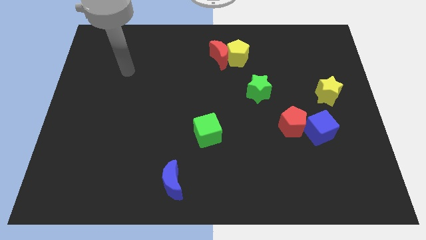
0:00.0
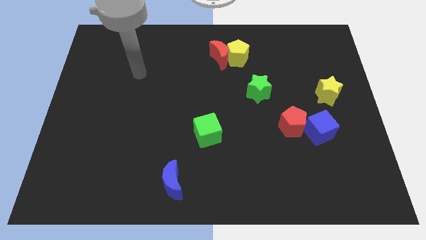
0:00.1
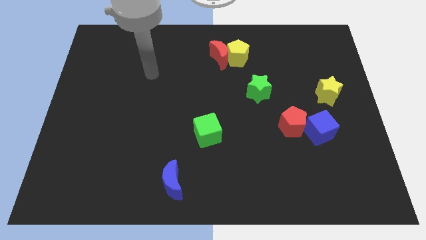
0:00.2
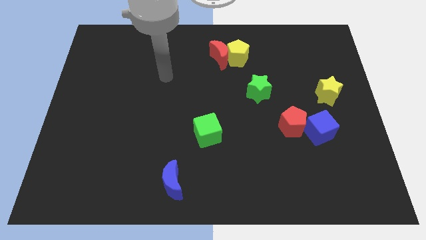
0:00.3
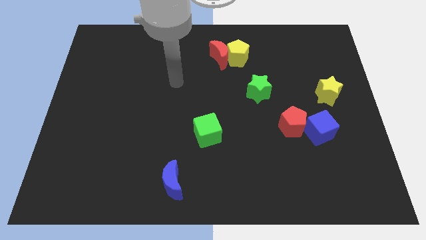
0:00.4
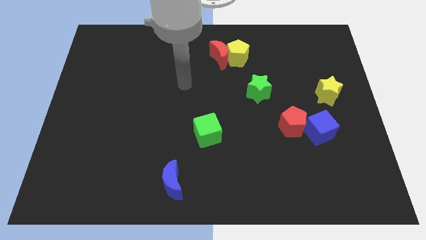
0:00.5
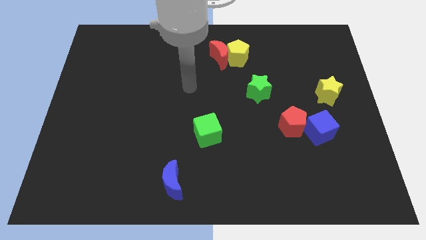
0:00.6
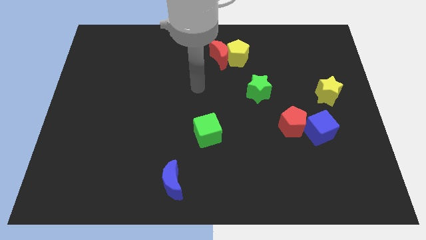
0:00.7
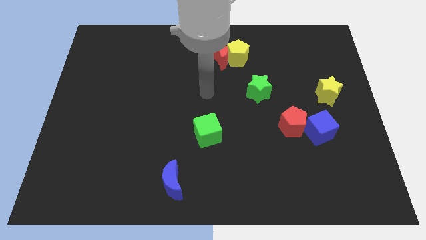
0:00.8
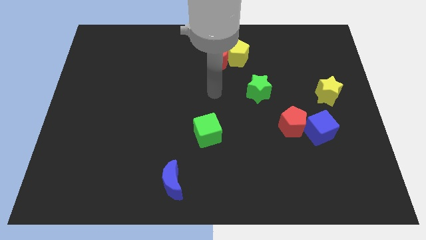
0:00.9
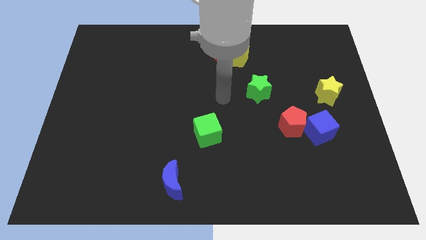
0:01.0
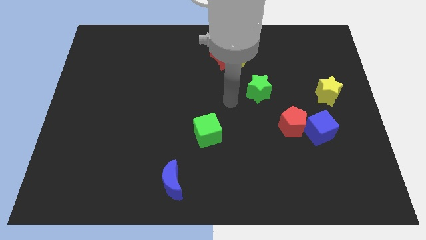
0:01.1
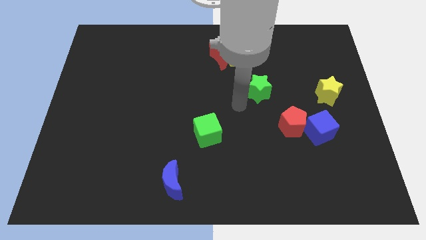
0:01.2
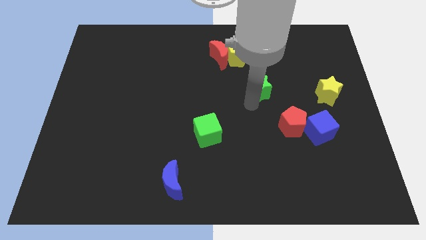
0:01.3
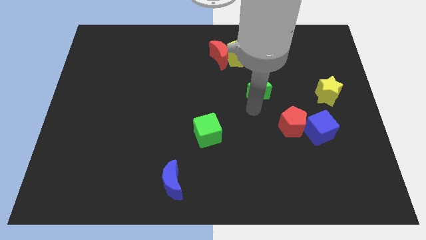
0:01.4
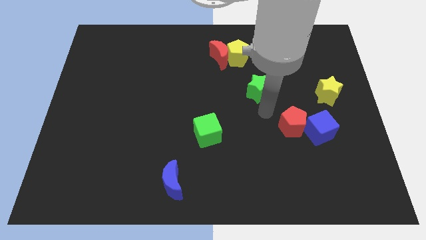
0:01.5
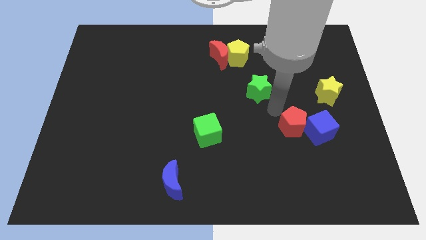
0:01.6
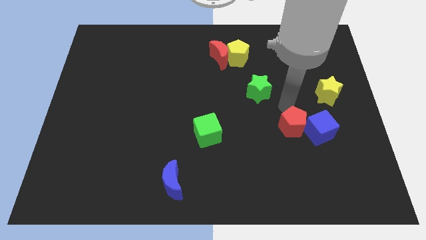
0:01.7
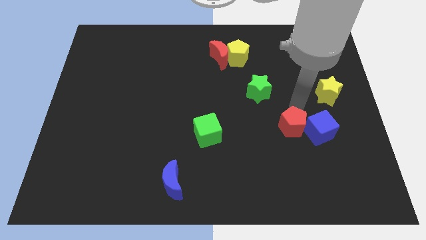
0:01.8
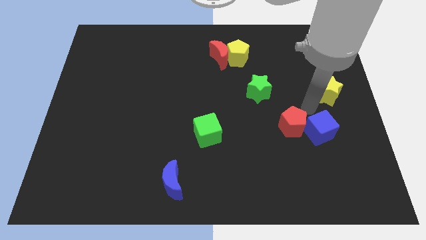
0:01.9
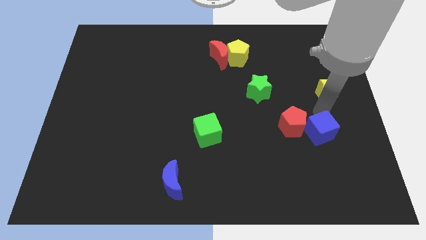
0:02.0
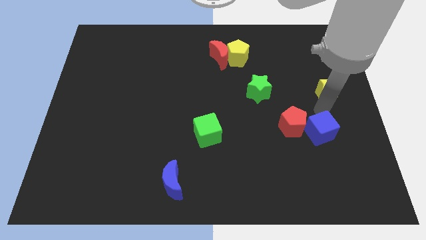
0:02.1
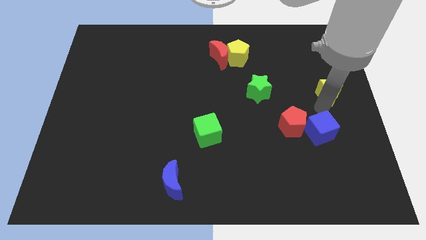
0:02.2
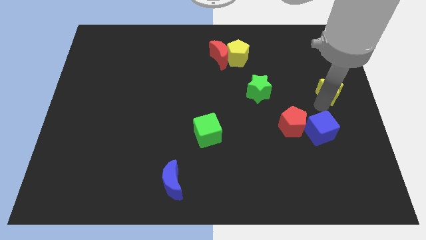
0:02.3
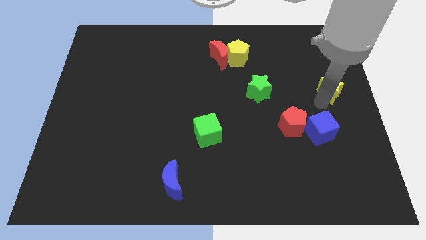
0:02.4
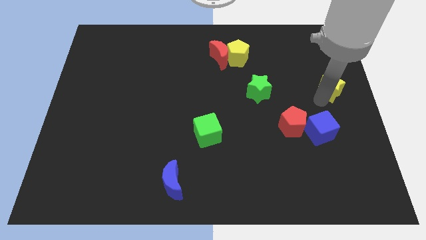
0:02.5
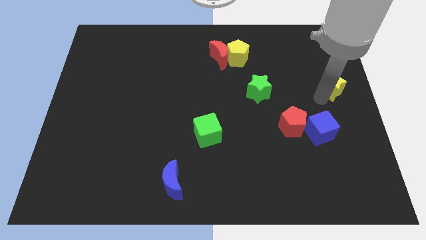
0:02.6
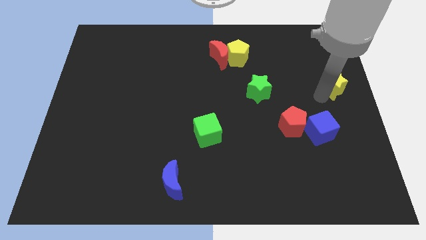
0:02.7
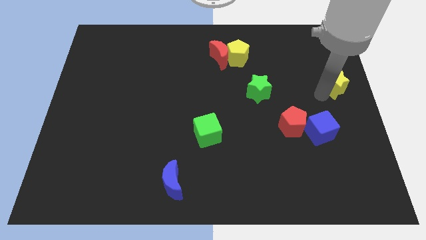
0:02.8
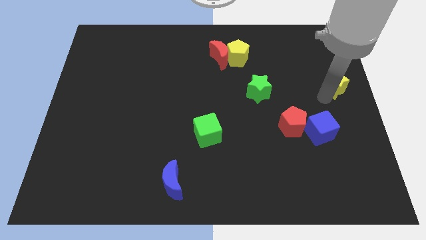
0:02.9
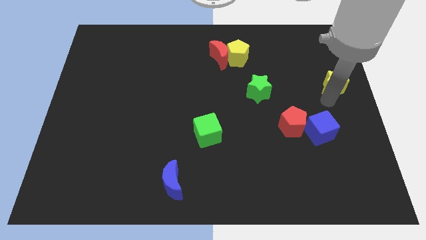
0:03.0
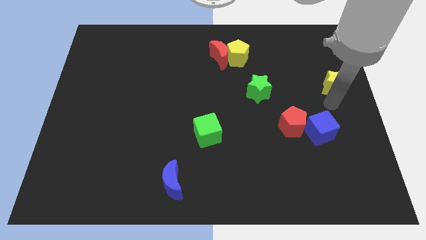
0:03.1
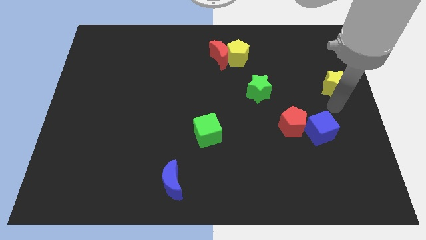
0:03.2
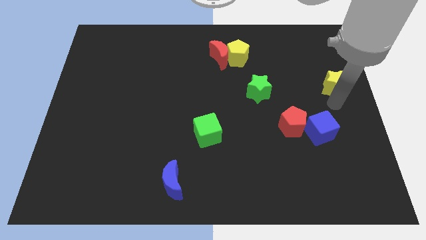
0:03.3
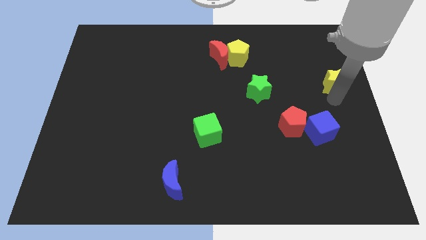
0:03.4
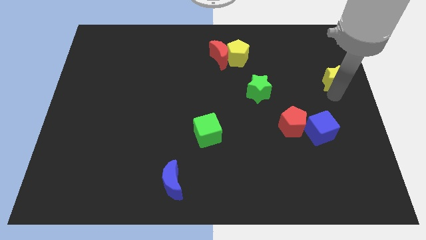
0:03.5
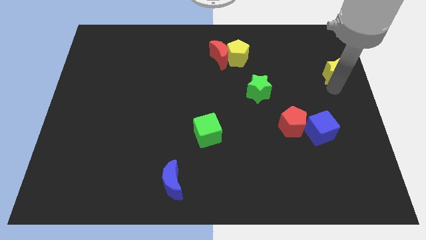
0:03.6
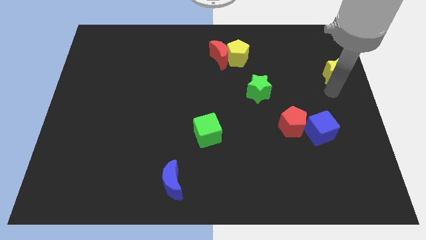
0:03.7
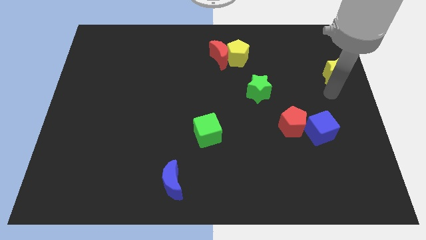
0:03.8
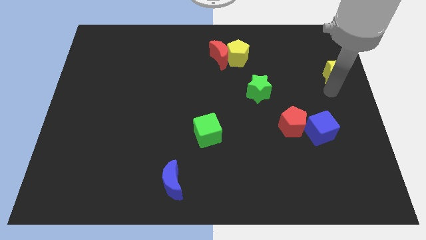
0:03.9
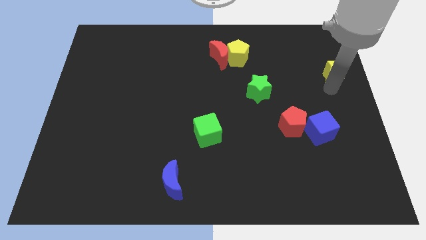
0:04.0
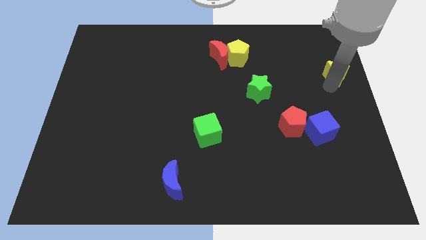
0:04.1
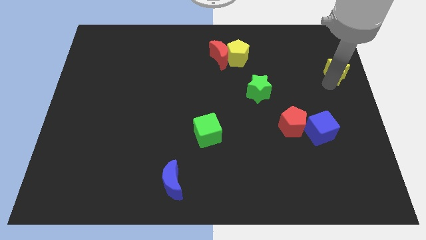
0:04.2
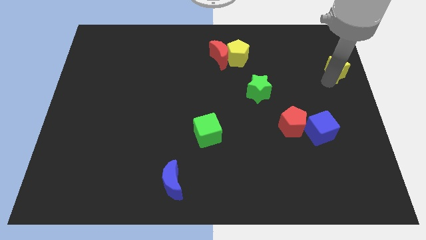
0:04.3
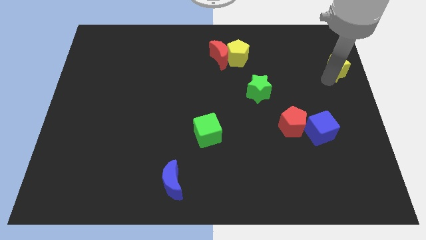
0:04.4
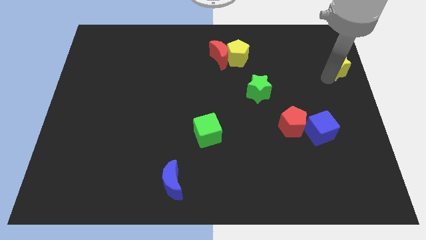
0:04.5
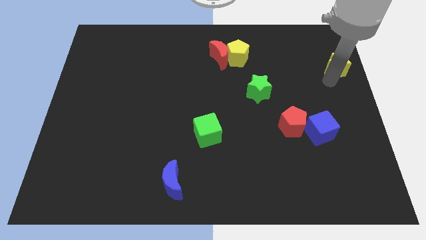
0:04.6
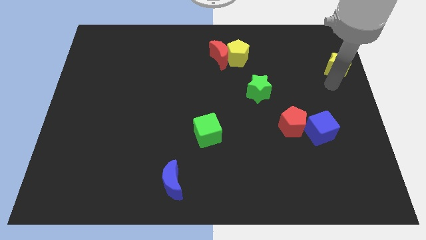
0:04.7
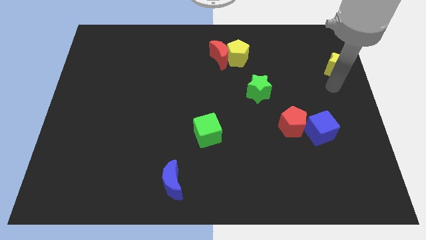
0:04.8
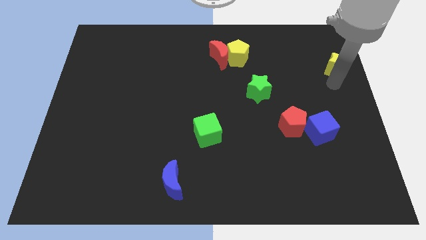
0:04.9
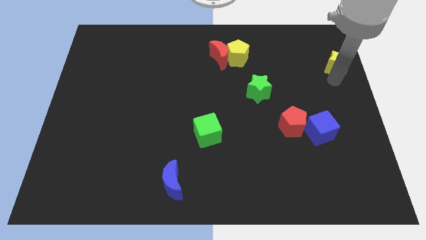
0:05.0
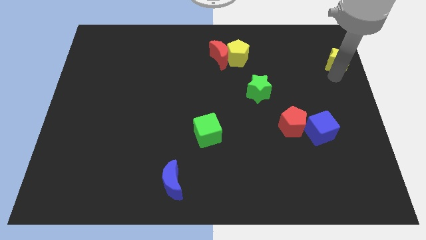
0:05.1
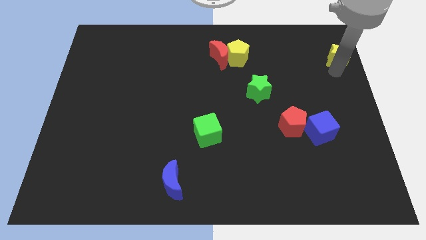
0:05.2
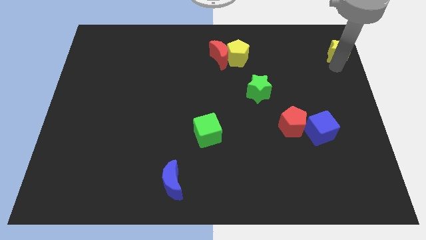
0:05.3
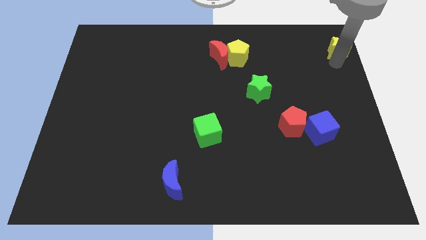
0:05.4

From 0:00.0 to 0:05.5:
move the yellow star to the upper right corner

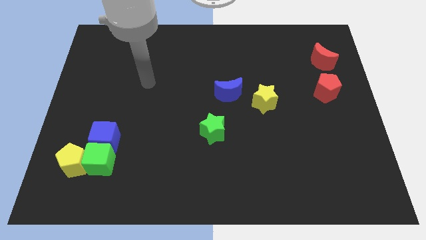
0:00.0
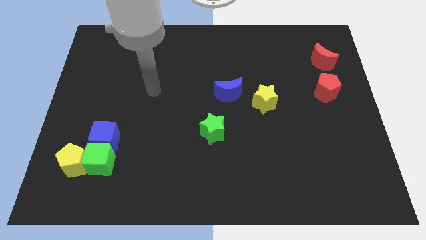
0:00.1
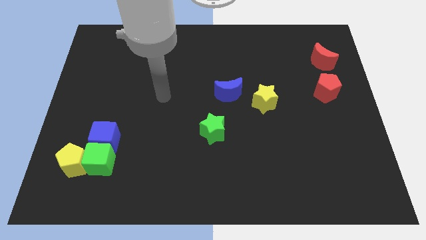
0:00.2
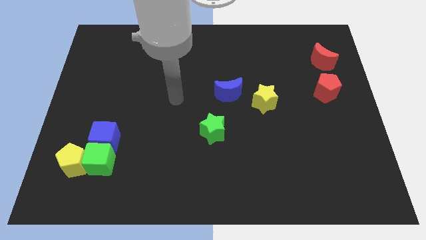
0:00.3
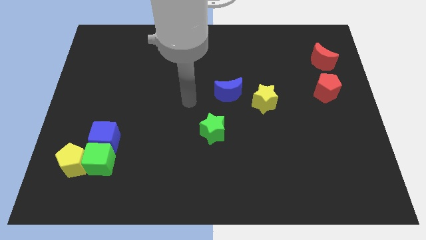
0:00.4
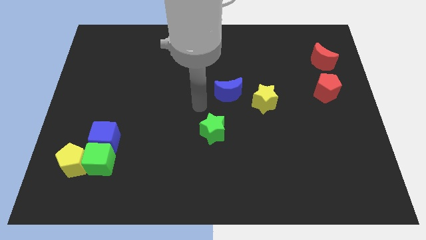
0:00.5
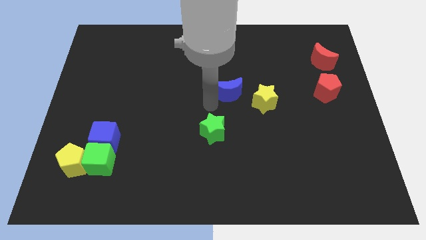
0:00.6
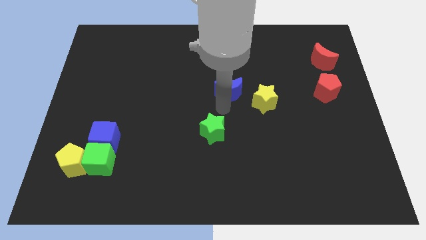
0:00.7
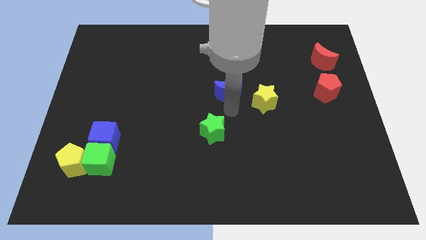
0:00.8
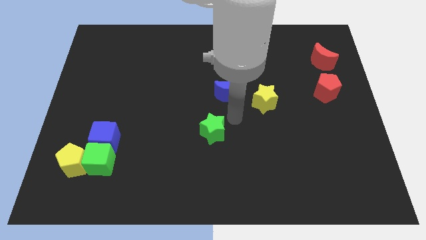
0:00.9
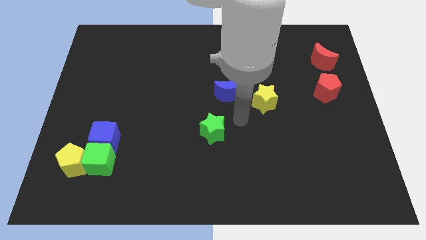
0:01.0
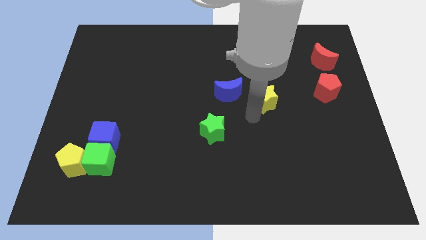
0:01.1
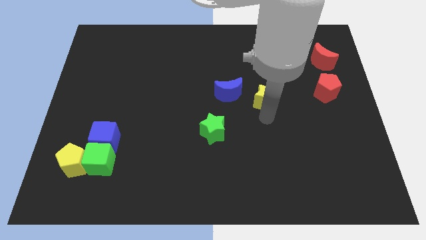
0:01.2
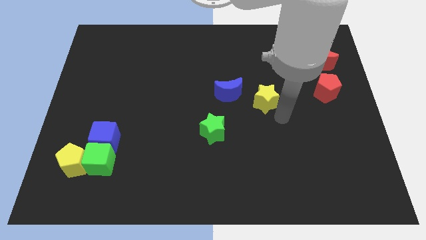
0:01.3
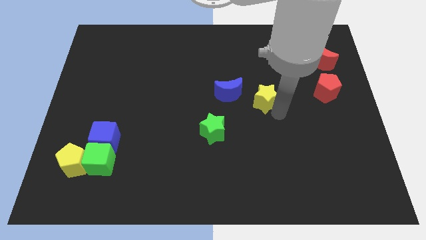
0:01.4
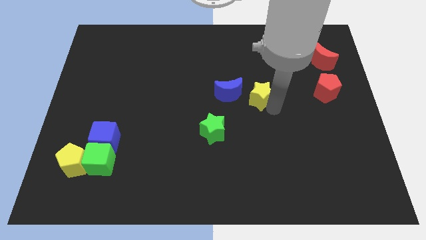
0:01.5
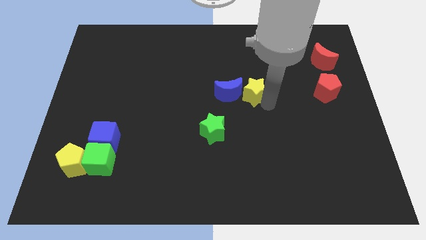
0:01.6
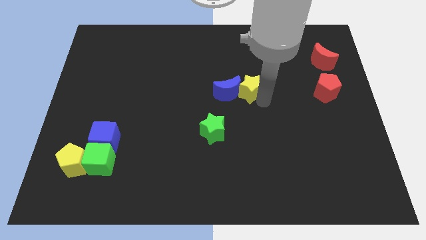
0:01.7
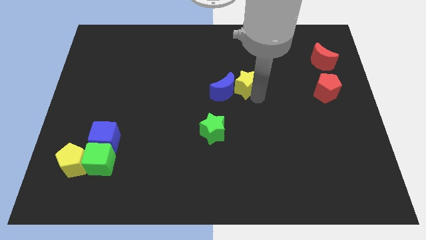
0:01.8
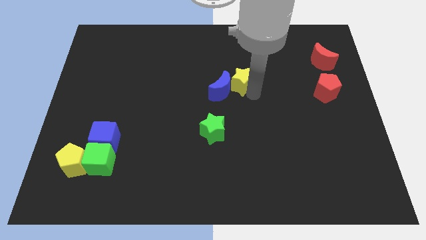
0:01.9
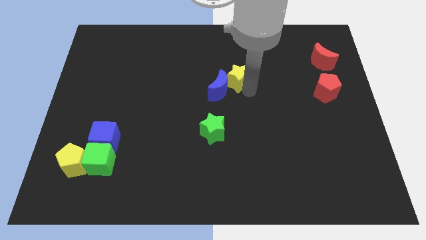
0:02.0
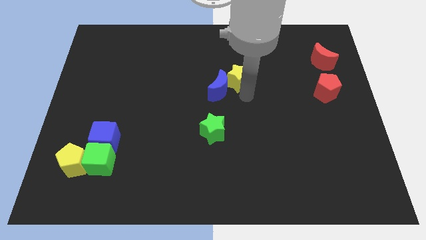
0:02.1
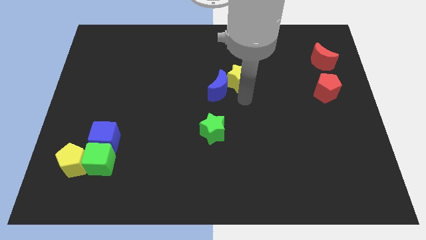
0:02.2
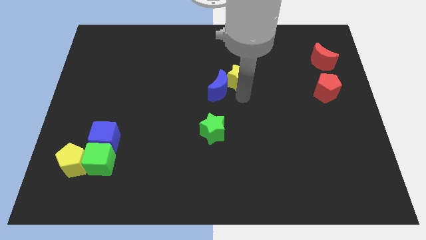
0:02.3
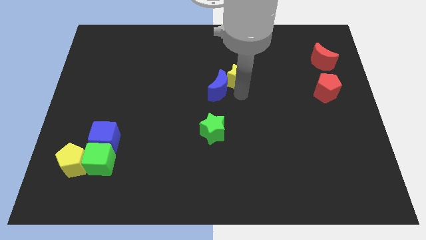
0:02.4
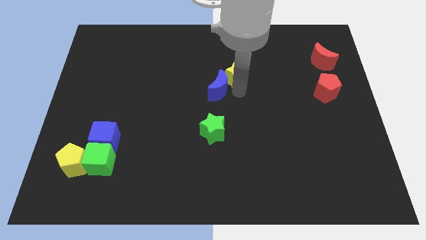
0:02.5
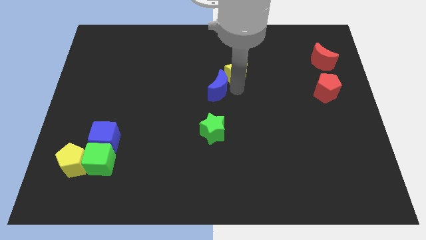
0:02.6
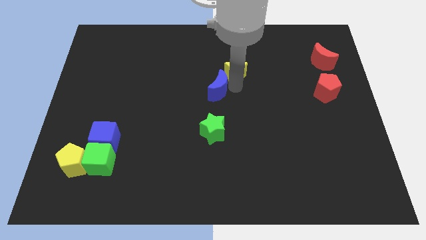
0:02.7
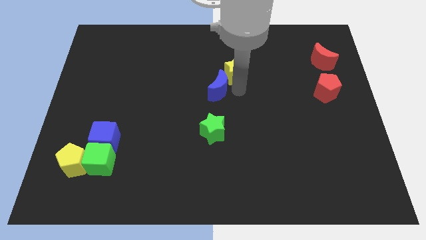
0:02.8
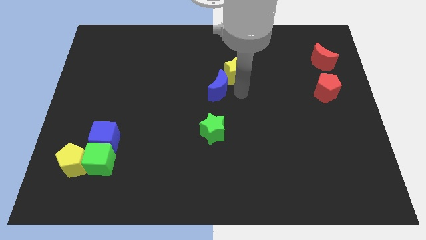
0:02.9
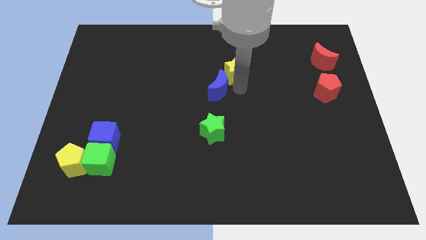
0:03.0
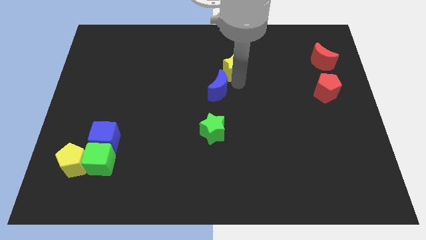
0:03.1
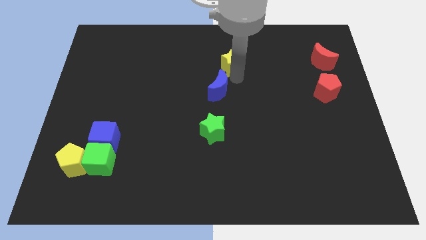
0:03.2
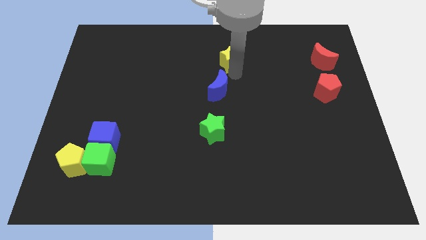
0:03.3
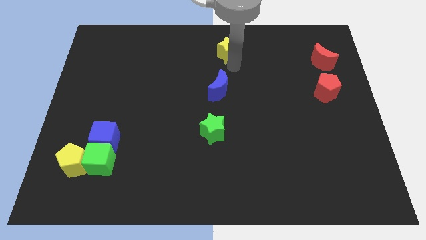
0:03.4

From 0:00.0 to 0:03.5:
move the yellow star to the towards your base
